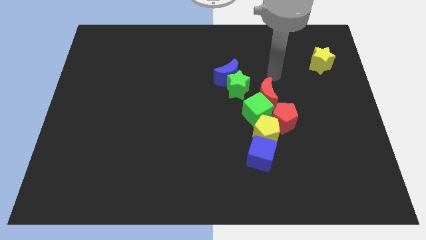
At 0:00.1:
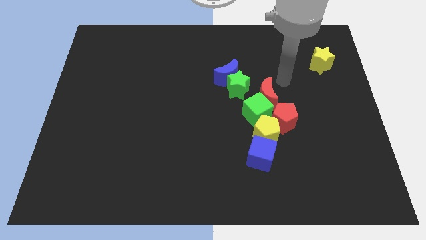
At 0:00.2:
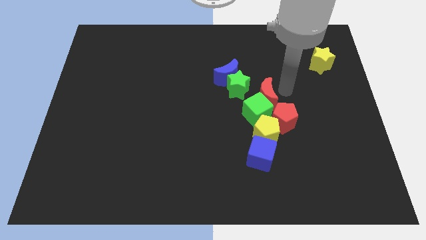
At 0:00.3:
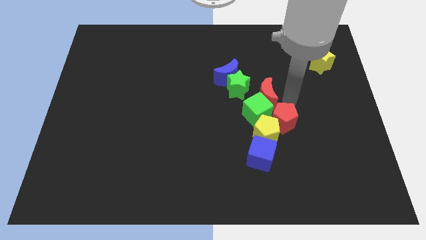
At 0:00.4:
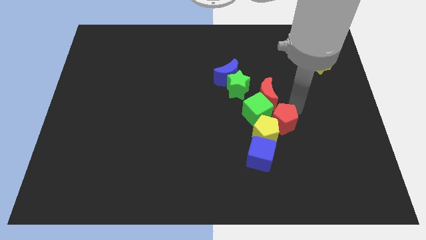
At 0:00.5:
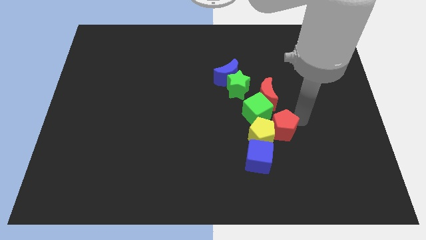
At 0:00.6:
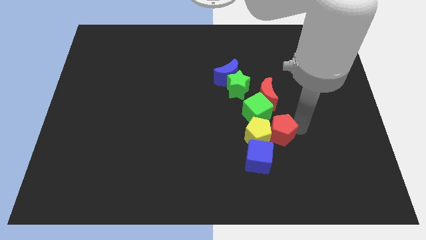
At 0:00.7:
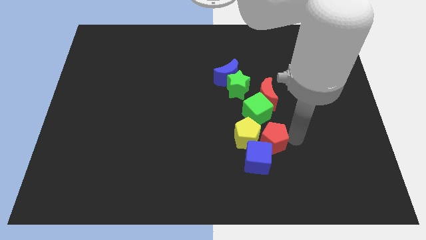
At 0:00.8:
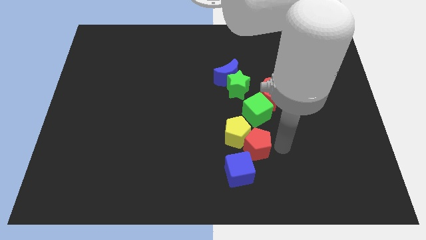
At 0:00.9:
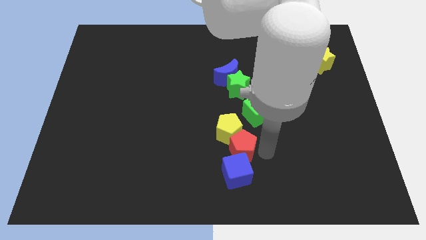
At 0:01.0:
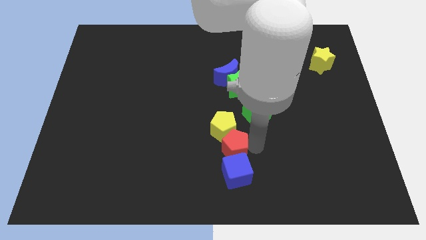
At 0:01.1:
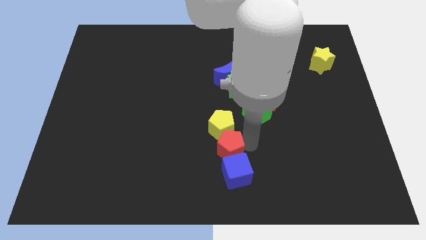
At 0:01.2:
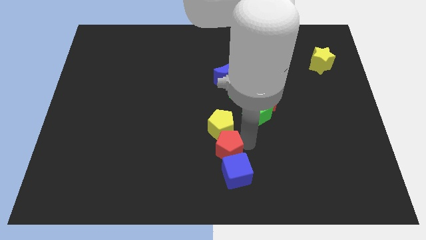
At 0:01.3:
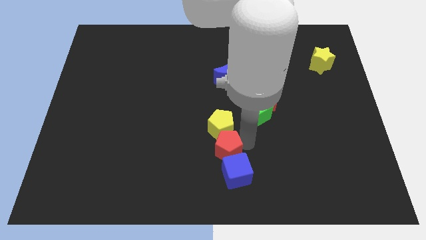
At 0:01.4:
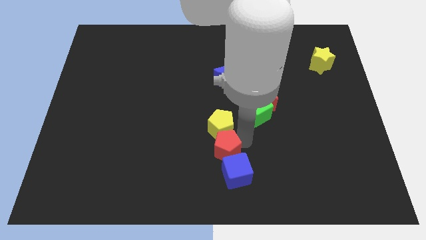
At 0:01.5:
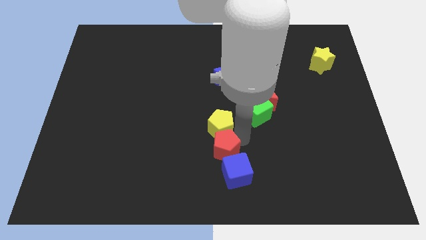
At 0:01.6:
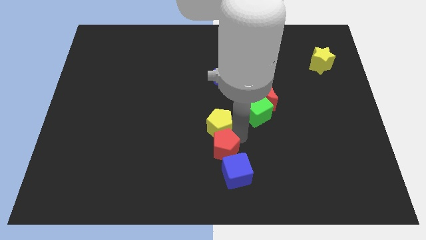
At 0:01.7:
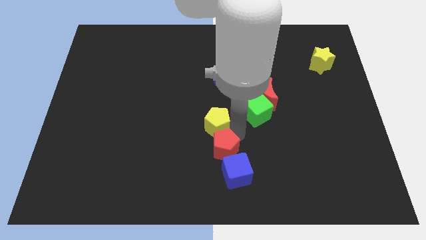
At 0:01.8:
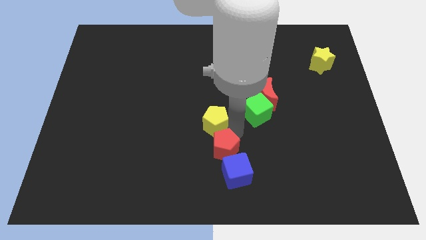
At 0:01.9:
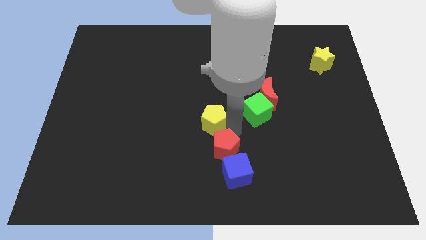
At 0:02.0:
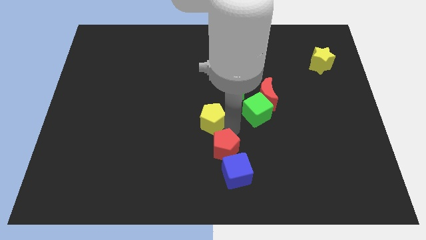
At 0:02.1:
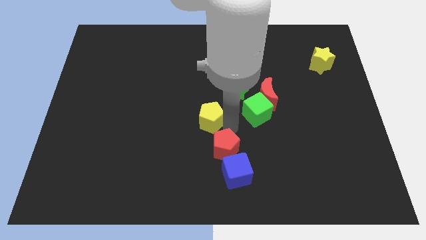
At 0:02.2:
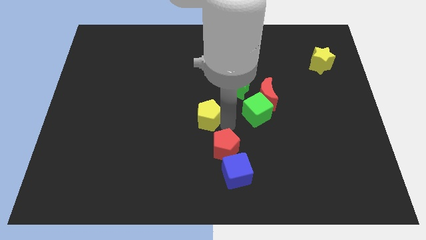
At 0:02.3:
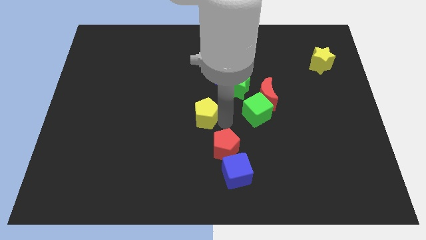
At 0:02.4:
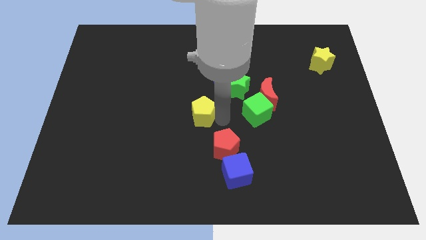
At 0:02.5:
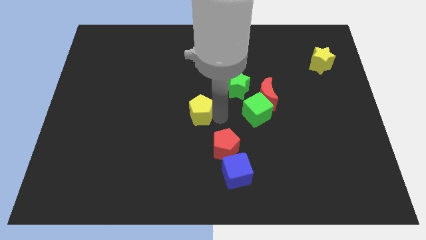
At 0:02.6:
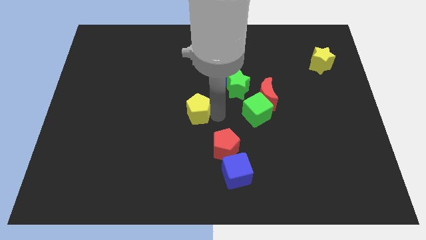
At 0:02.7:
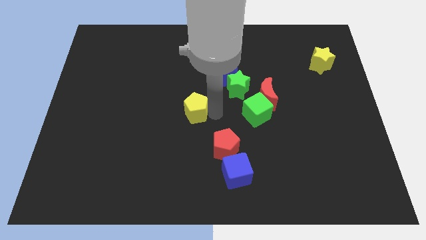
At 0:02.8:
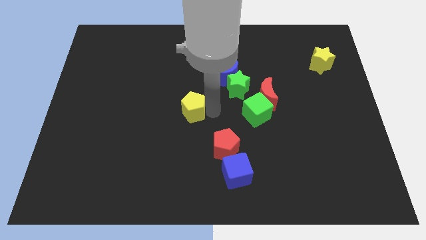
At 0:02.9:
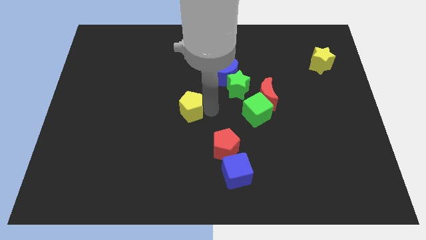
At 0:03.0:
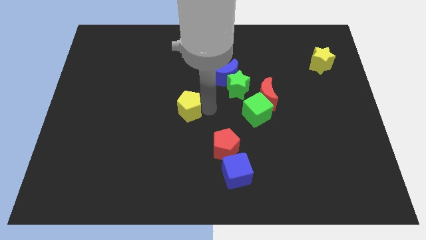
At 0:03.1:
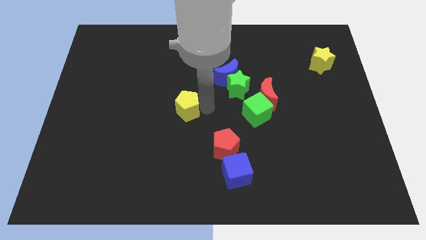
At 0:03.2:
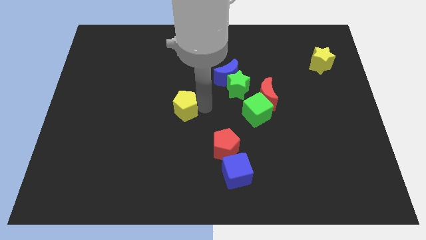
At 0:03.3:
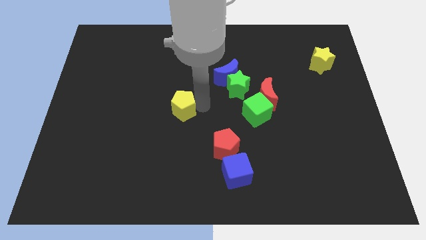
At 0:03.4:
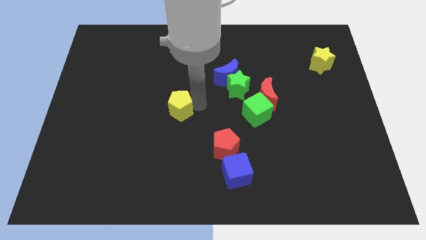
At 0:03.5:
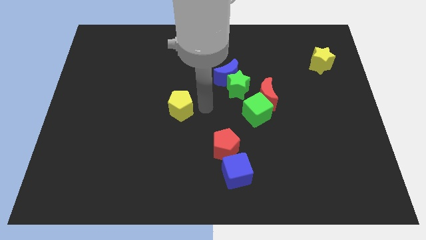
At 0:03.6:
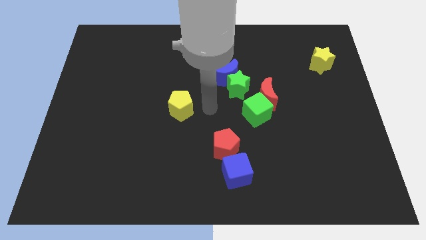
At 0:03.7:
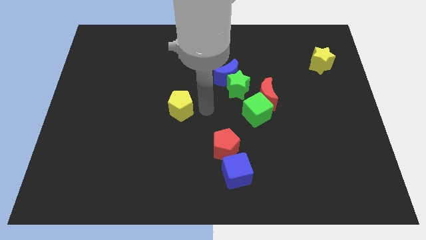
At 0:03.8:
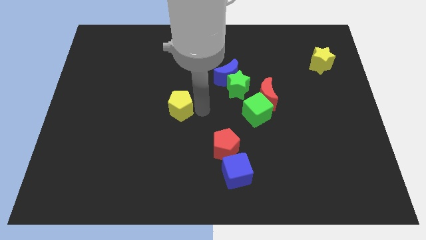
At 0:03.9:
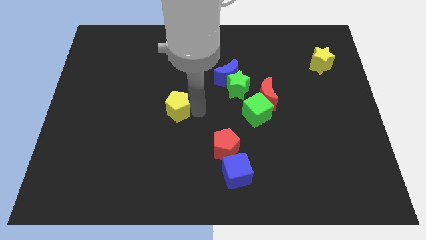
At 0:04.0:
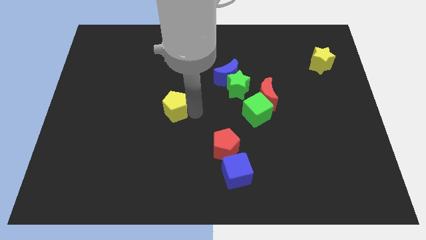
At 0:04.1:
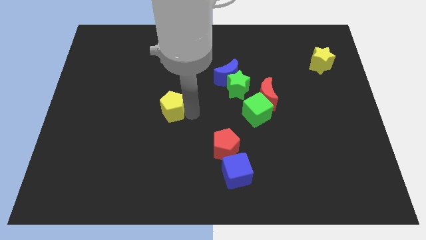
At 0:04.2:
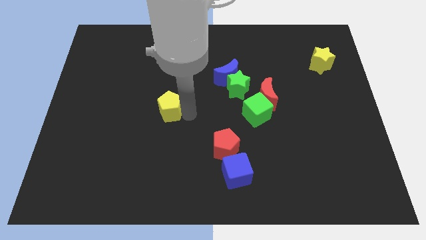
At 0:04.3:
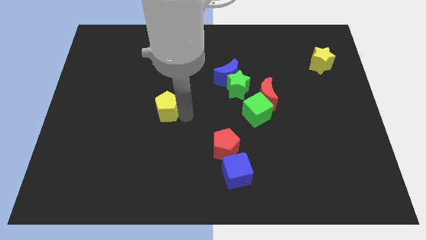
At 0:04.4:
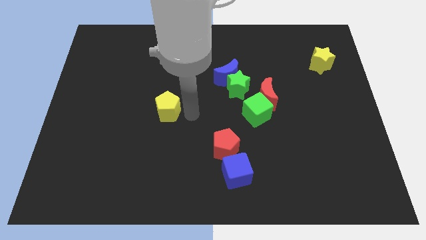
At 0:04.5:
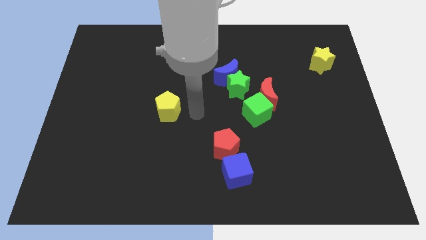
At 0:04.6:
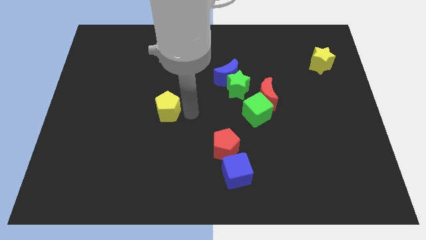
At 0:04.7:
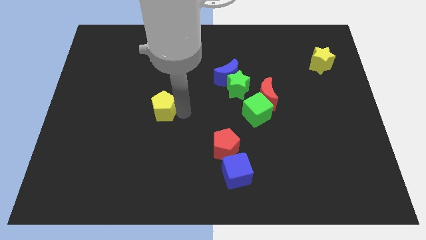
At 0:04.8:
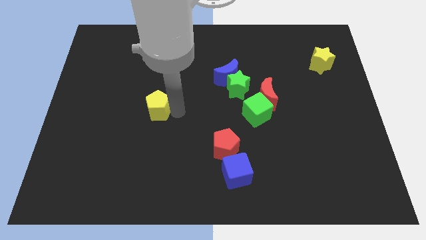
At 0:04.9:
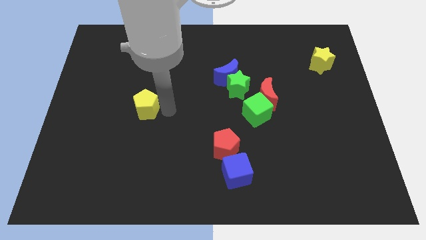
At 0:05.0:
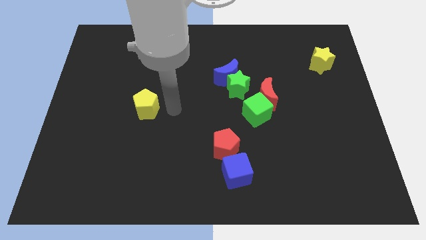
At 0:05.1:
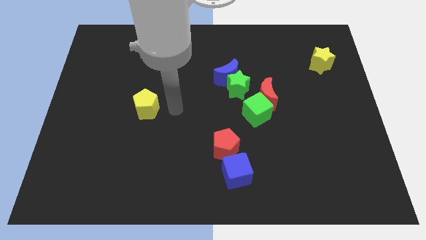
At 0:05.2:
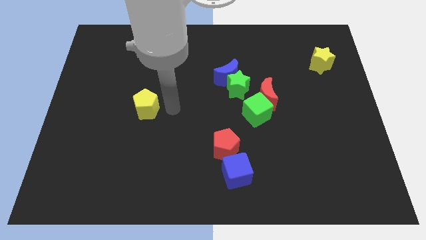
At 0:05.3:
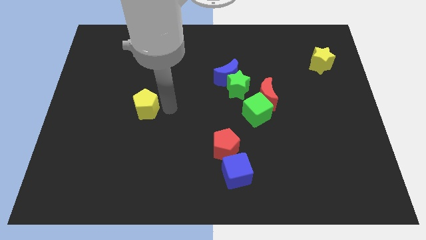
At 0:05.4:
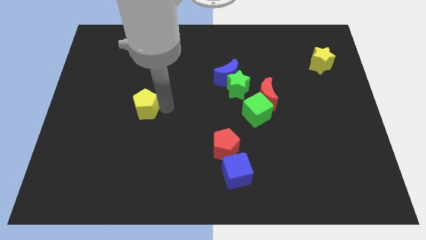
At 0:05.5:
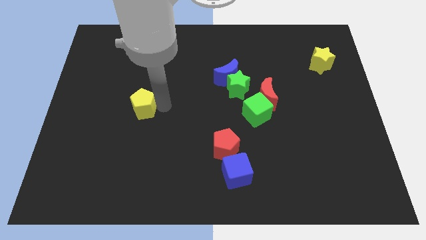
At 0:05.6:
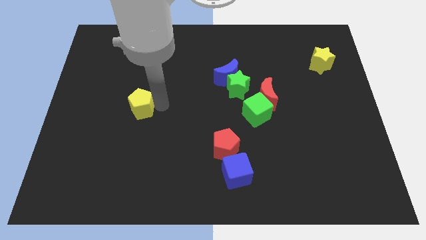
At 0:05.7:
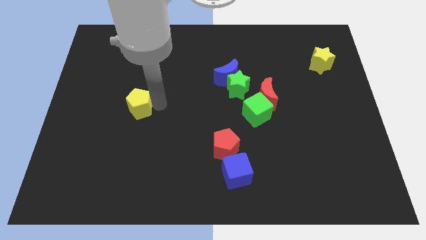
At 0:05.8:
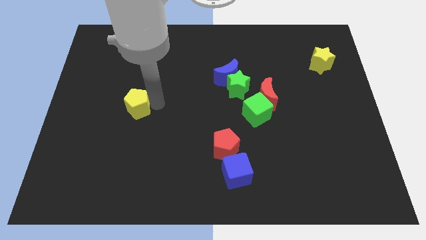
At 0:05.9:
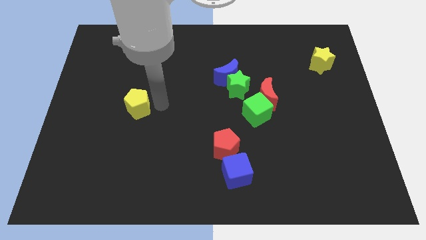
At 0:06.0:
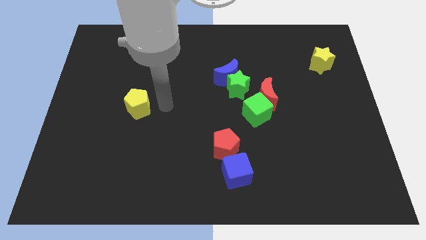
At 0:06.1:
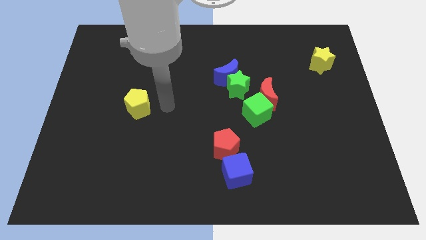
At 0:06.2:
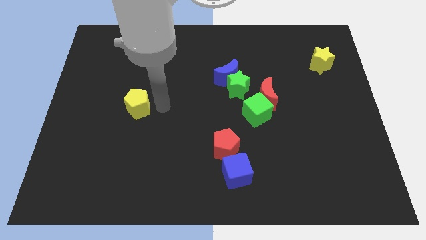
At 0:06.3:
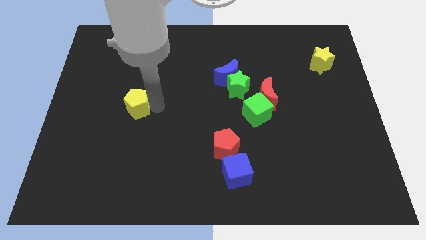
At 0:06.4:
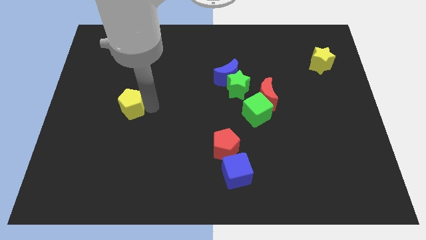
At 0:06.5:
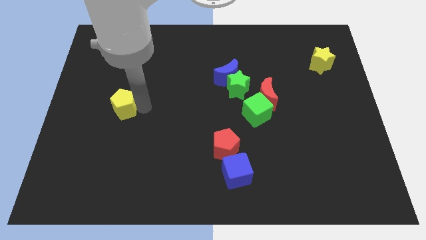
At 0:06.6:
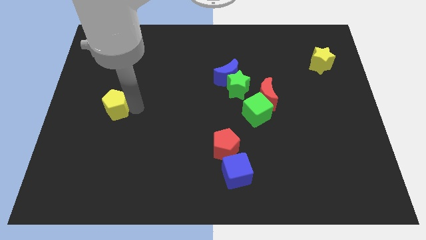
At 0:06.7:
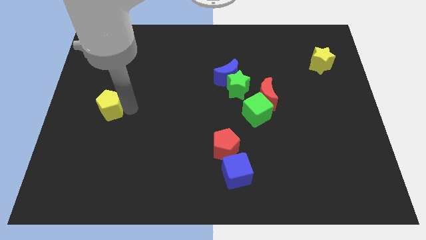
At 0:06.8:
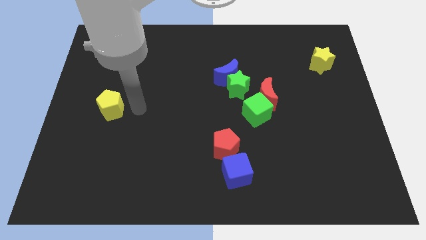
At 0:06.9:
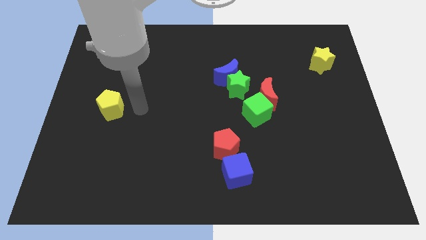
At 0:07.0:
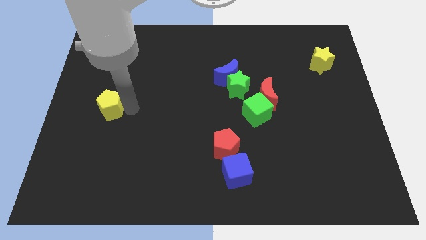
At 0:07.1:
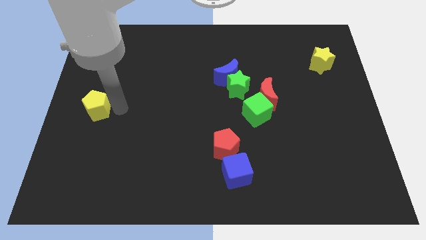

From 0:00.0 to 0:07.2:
put the yellow pentagon to the left side of the board
